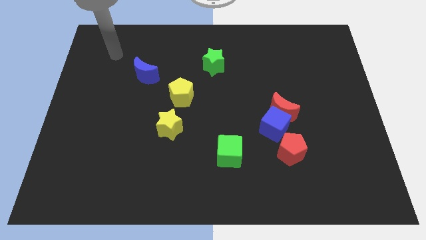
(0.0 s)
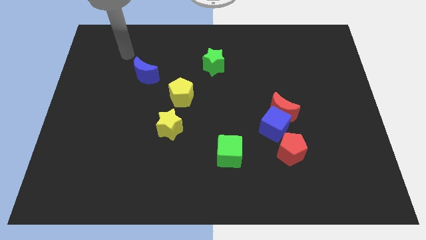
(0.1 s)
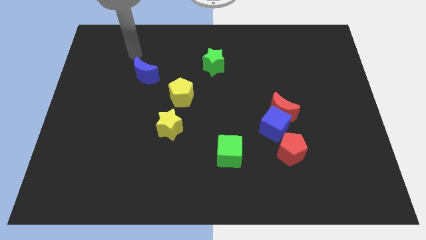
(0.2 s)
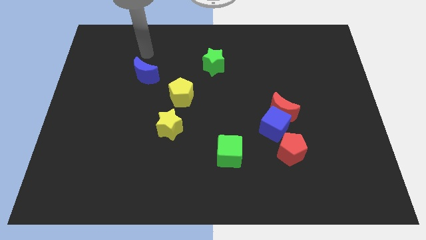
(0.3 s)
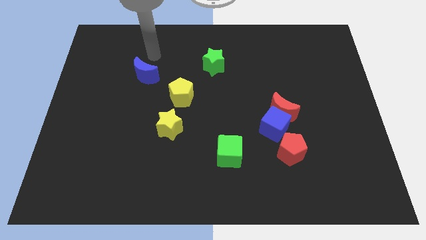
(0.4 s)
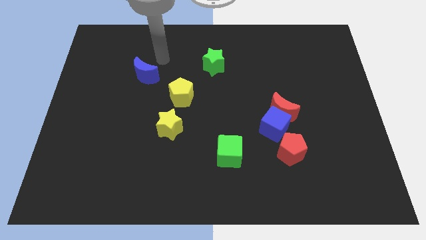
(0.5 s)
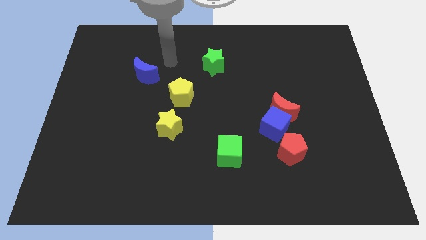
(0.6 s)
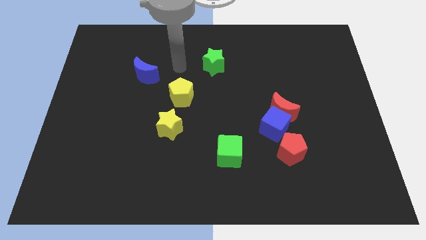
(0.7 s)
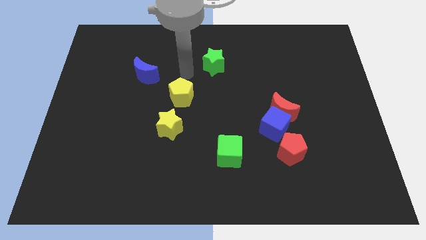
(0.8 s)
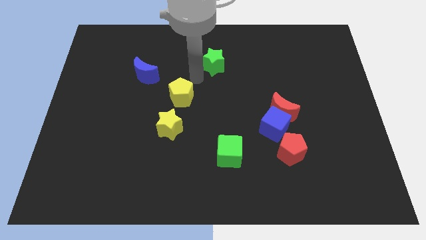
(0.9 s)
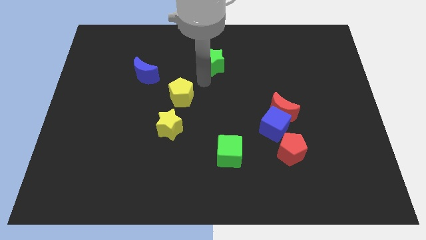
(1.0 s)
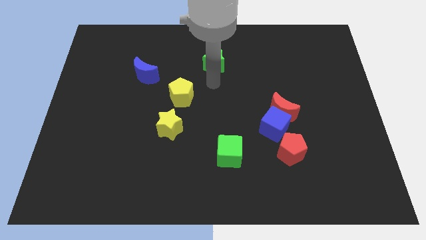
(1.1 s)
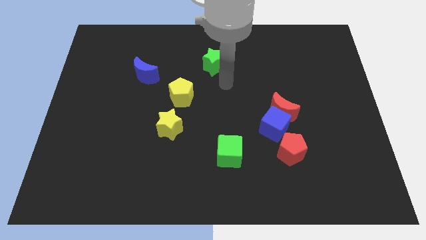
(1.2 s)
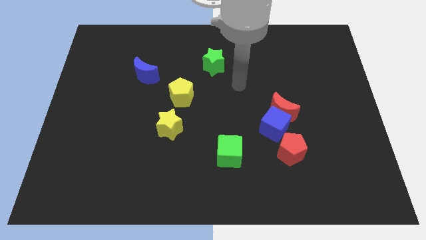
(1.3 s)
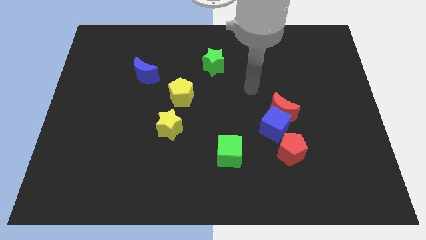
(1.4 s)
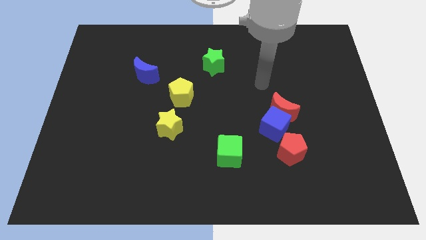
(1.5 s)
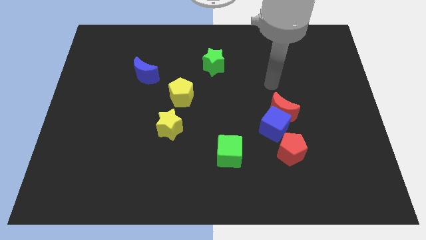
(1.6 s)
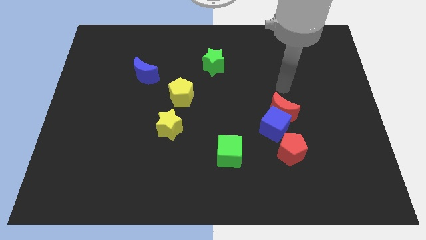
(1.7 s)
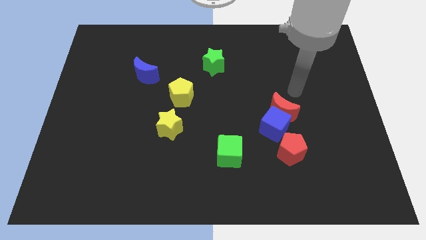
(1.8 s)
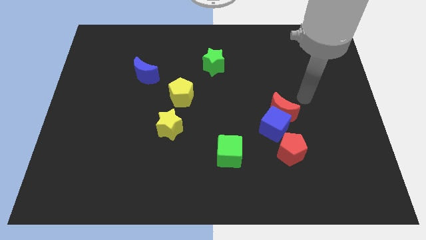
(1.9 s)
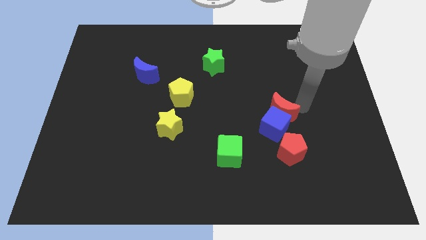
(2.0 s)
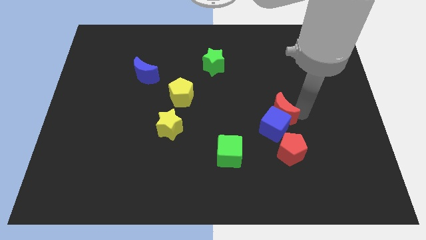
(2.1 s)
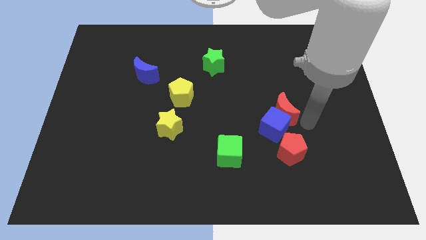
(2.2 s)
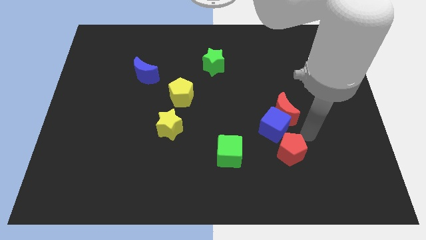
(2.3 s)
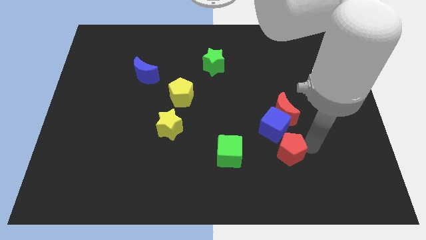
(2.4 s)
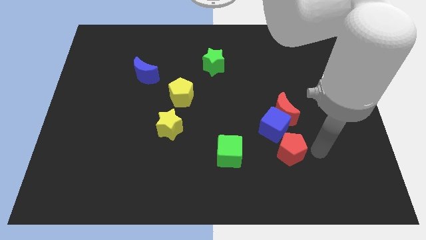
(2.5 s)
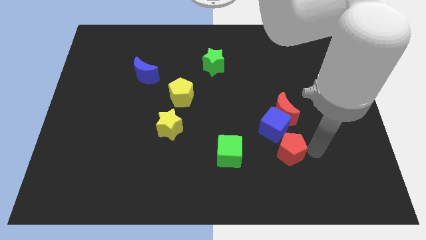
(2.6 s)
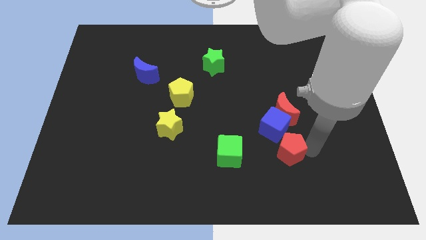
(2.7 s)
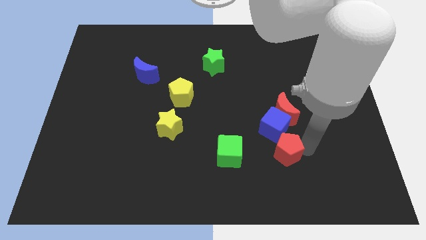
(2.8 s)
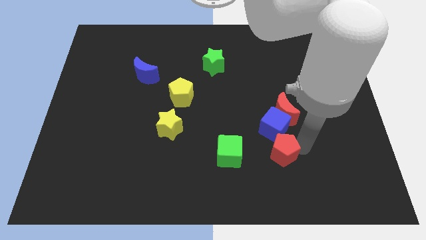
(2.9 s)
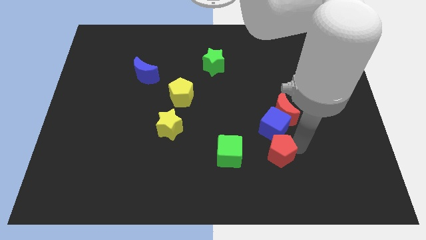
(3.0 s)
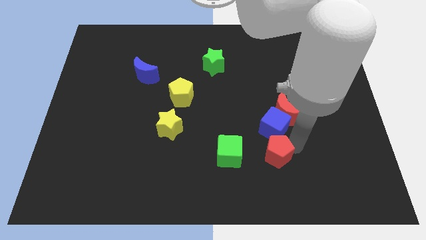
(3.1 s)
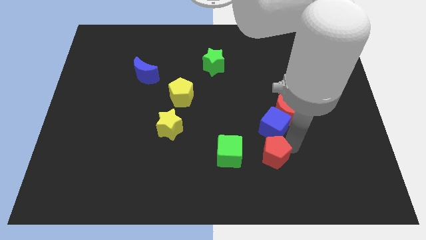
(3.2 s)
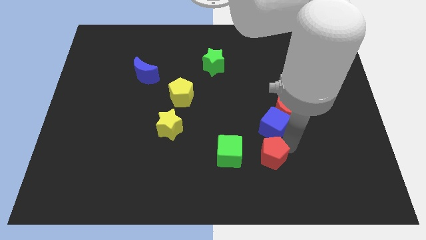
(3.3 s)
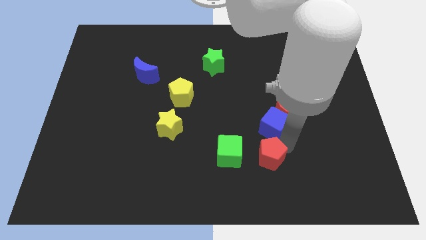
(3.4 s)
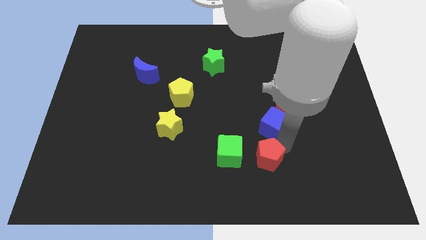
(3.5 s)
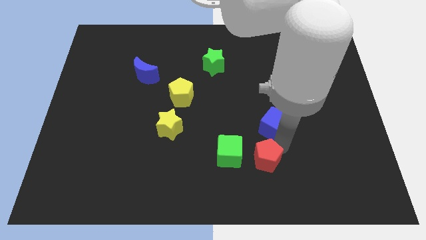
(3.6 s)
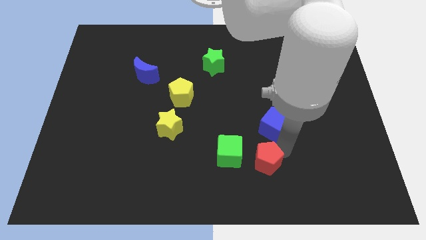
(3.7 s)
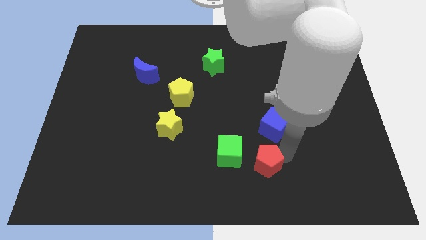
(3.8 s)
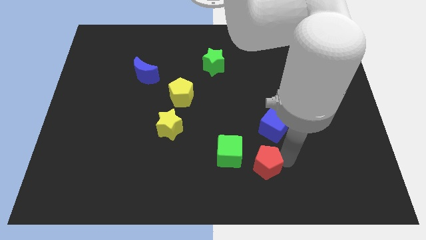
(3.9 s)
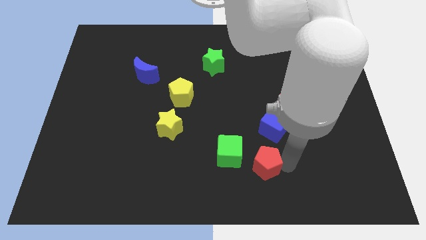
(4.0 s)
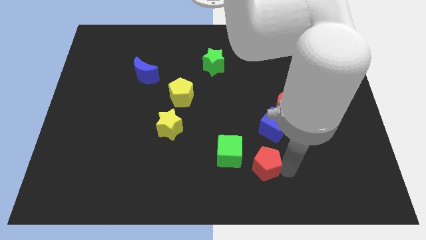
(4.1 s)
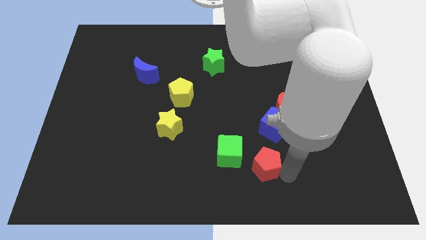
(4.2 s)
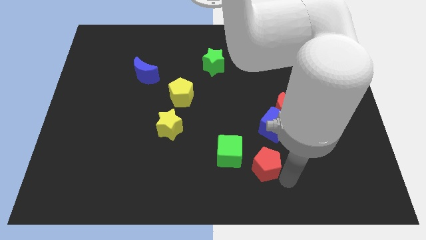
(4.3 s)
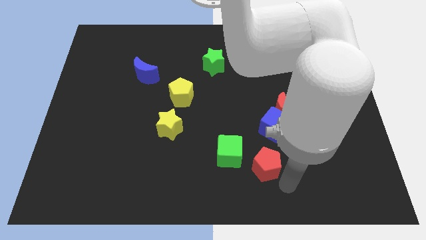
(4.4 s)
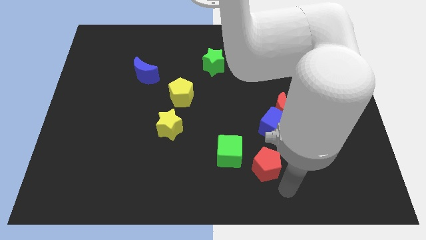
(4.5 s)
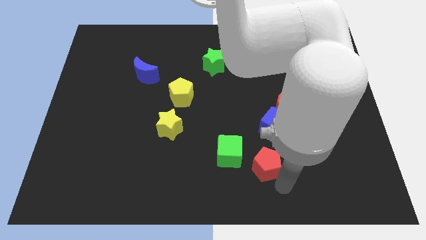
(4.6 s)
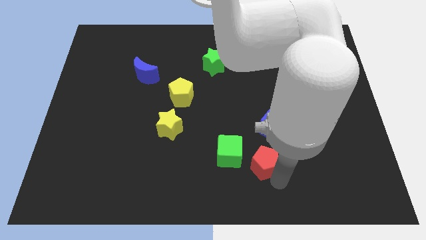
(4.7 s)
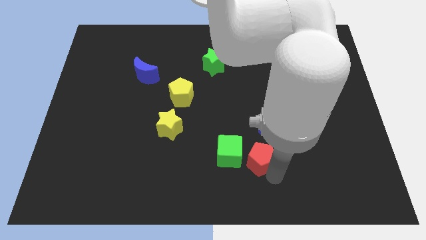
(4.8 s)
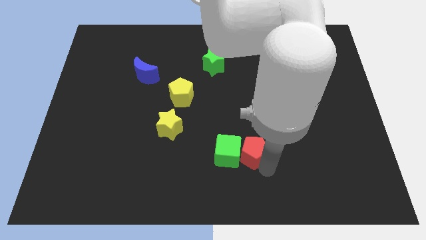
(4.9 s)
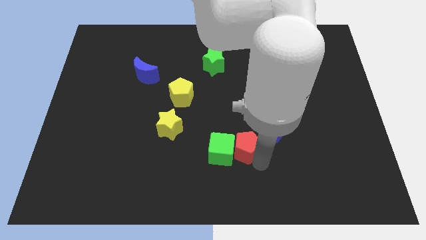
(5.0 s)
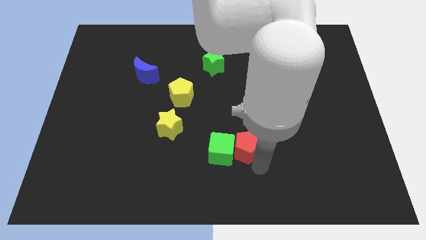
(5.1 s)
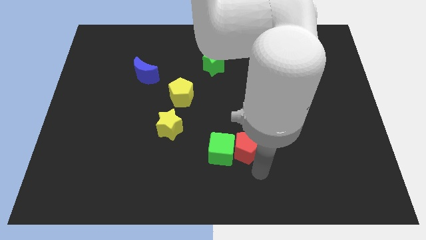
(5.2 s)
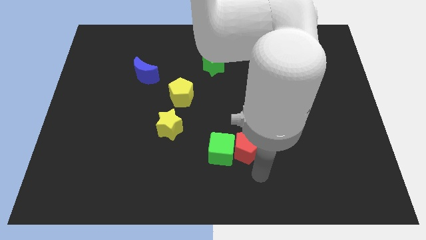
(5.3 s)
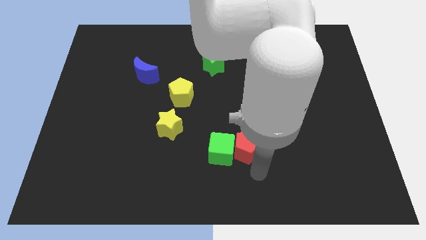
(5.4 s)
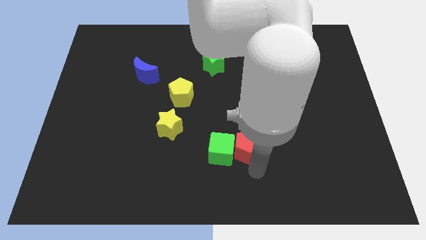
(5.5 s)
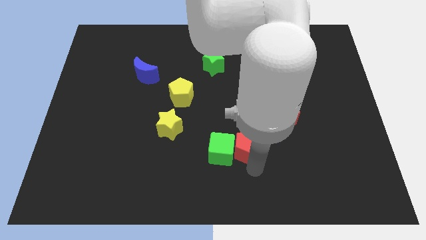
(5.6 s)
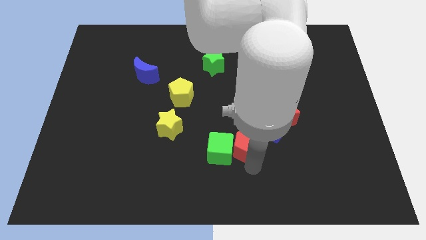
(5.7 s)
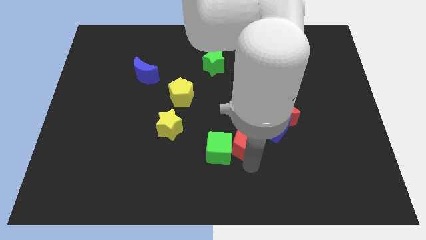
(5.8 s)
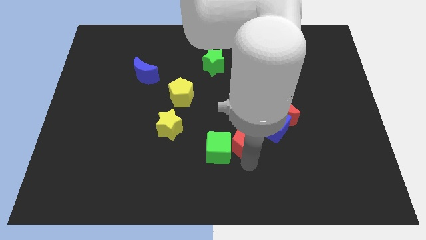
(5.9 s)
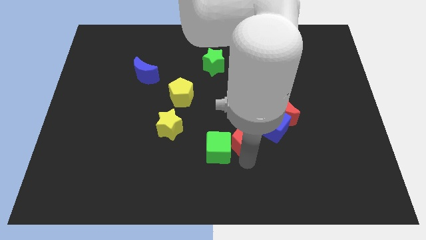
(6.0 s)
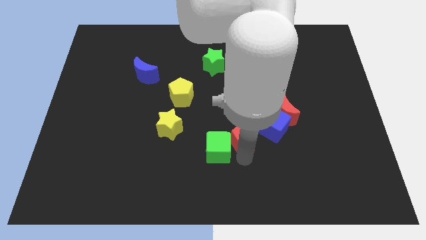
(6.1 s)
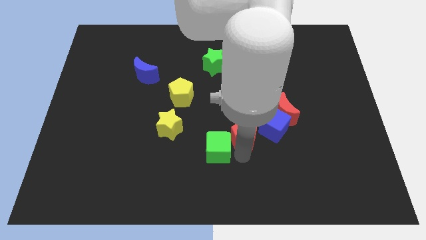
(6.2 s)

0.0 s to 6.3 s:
push the red pentagon to the middle
